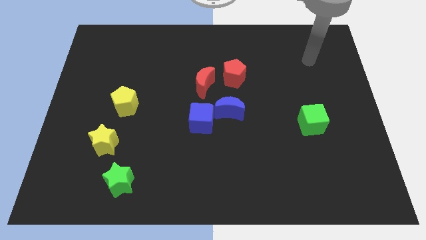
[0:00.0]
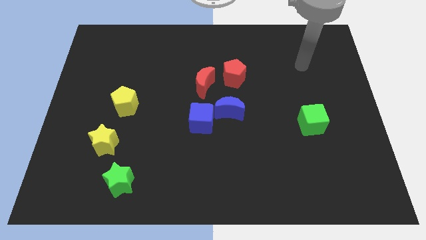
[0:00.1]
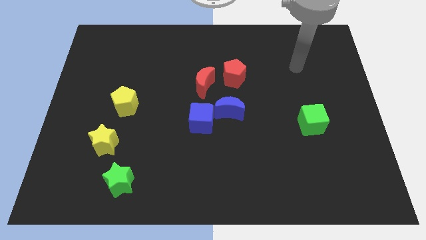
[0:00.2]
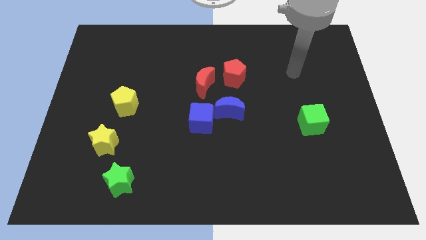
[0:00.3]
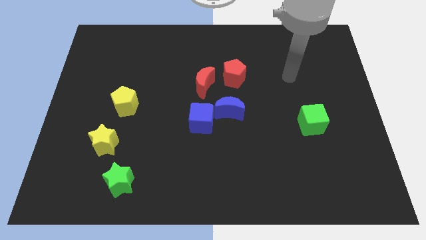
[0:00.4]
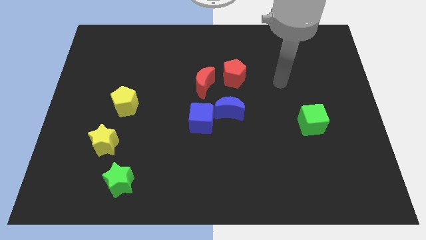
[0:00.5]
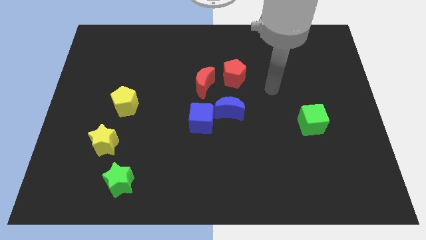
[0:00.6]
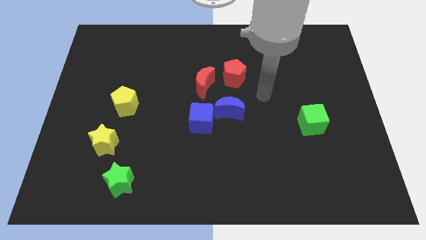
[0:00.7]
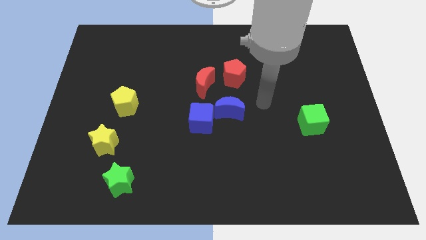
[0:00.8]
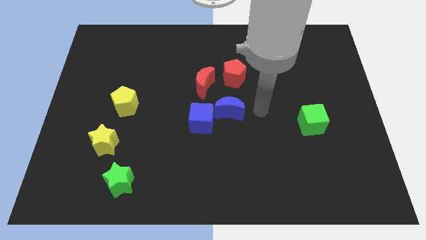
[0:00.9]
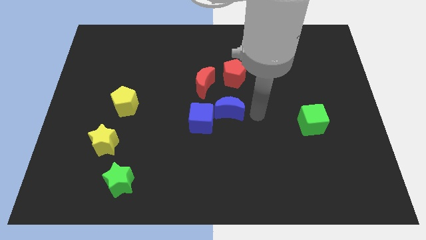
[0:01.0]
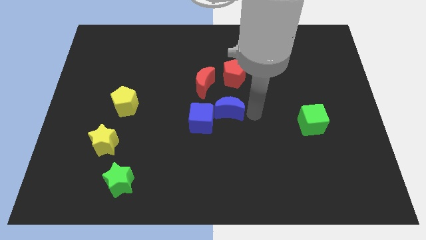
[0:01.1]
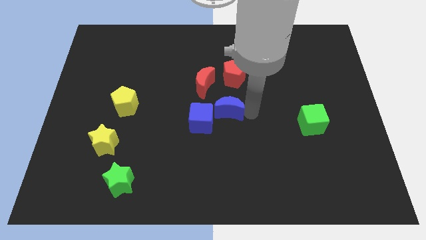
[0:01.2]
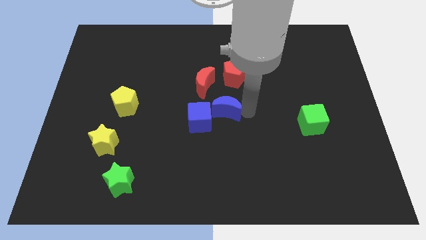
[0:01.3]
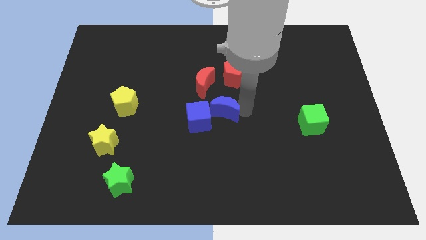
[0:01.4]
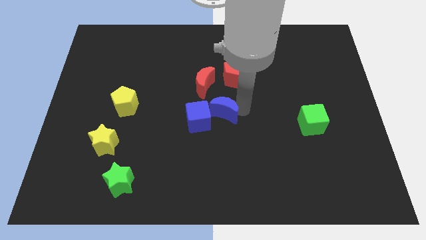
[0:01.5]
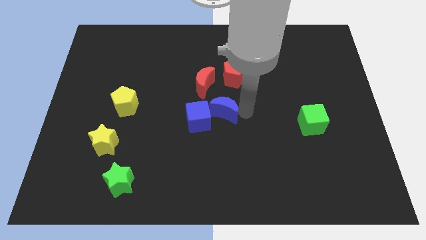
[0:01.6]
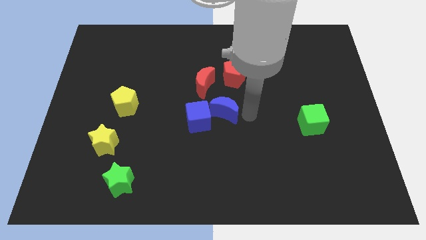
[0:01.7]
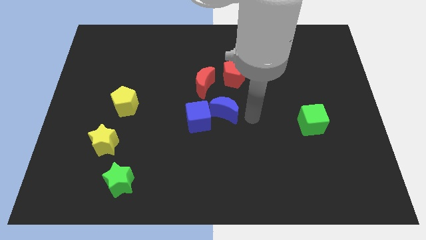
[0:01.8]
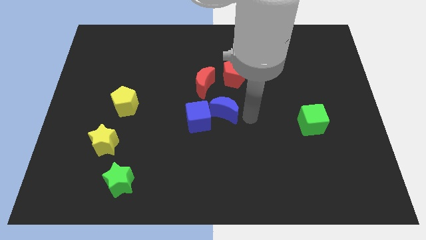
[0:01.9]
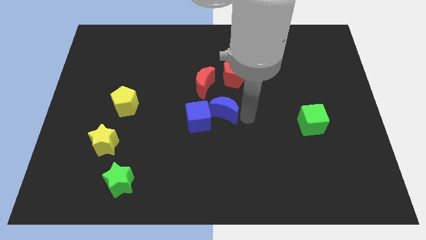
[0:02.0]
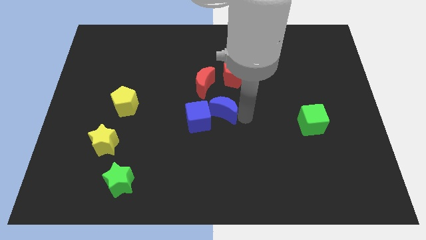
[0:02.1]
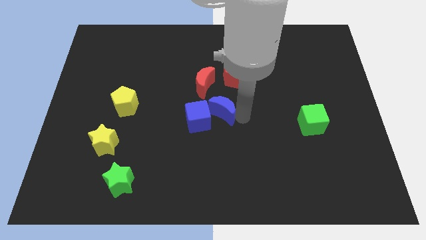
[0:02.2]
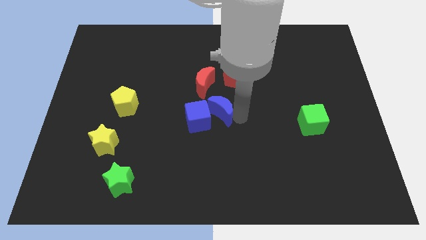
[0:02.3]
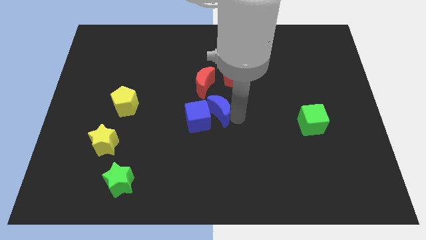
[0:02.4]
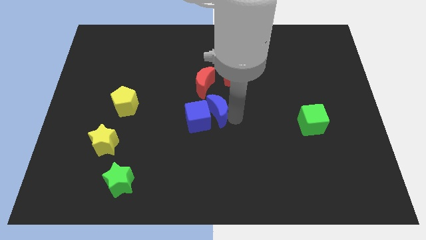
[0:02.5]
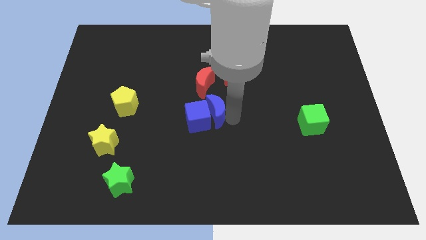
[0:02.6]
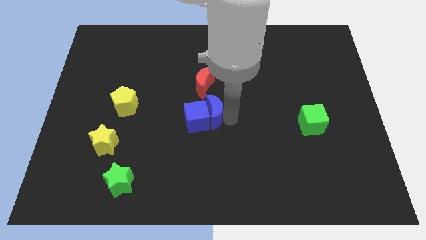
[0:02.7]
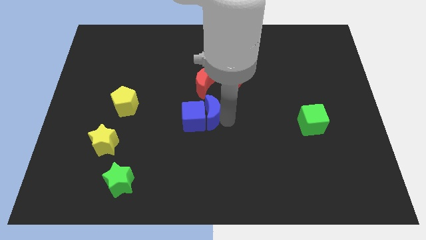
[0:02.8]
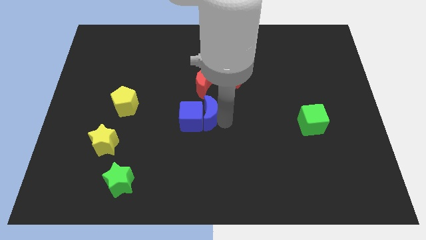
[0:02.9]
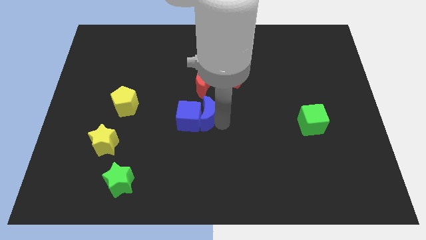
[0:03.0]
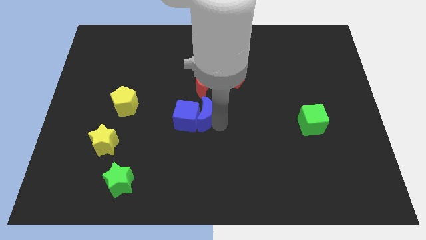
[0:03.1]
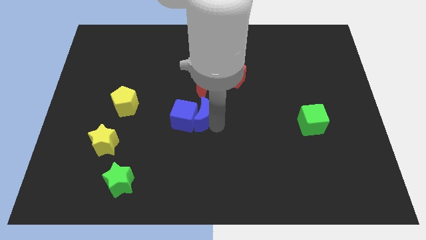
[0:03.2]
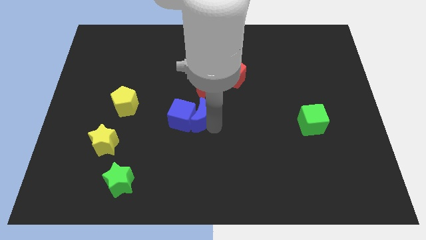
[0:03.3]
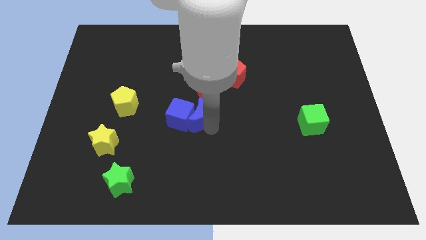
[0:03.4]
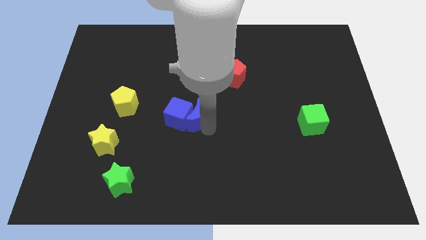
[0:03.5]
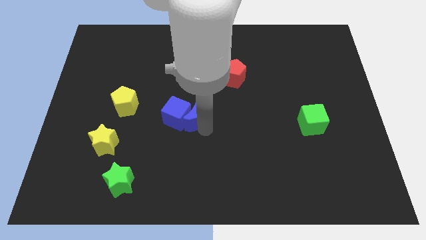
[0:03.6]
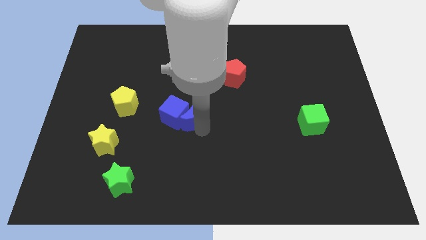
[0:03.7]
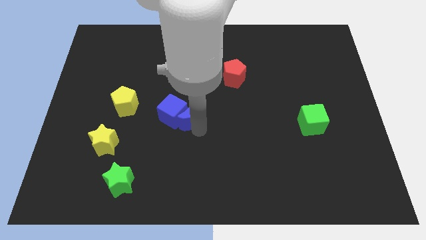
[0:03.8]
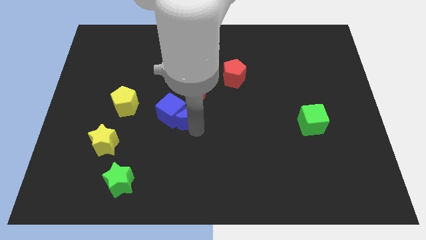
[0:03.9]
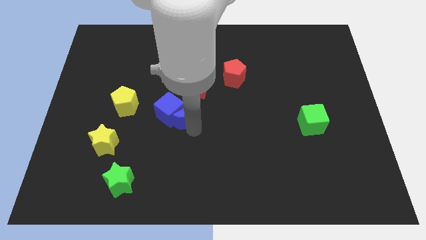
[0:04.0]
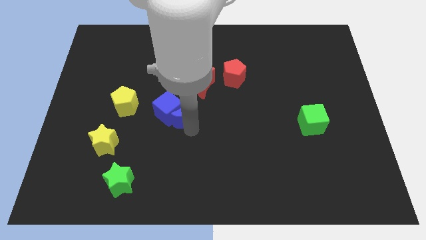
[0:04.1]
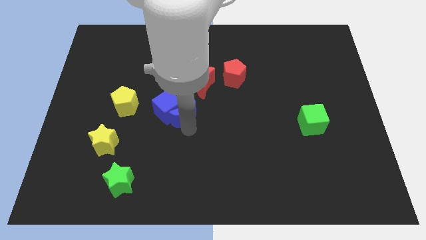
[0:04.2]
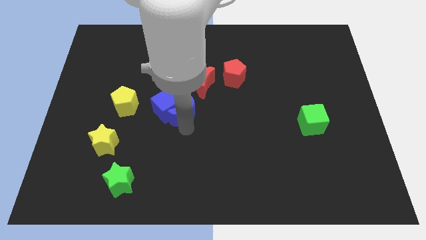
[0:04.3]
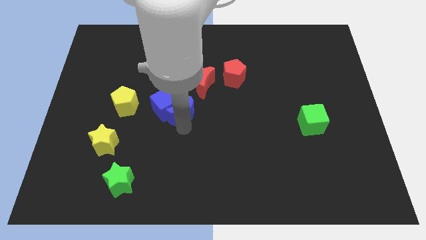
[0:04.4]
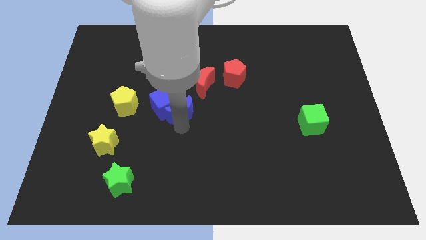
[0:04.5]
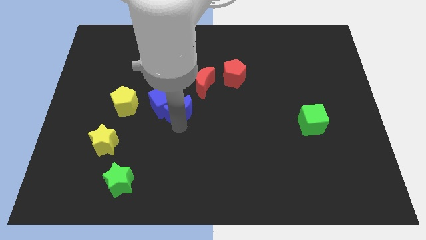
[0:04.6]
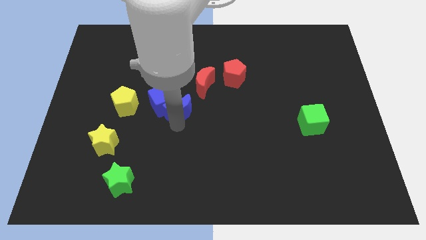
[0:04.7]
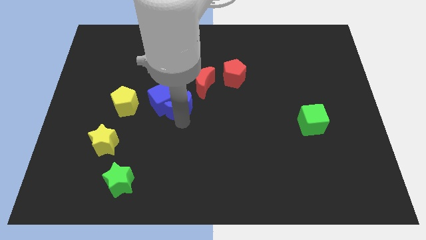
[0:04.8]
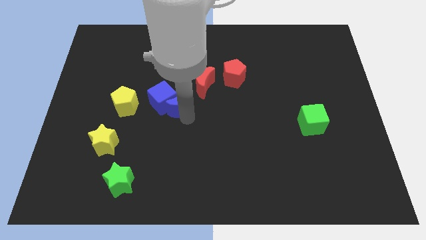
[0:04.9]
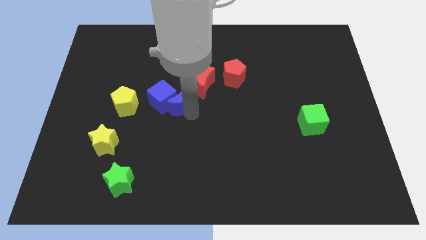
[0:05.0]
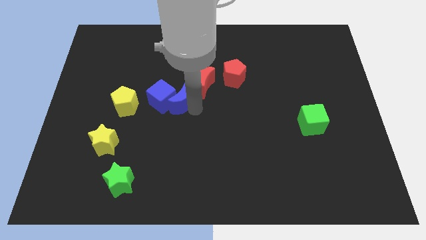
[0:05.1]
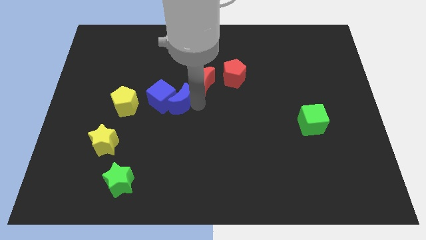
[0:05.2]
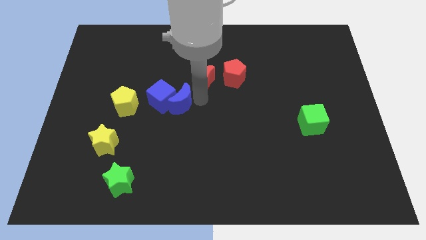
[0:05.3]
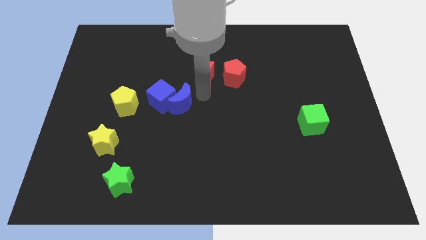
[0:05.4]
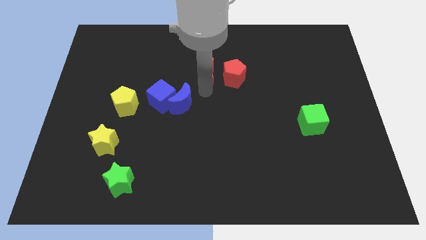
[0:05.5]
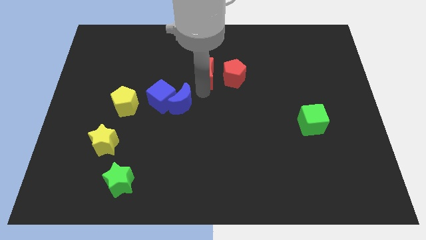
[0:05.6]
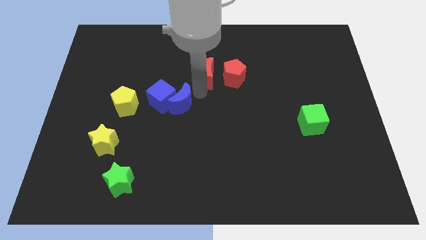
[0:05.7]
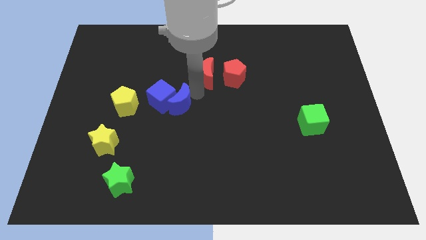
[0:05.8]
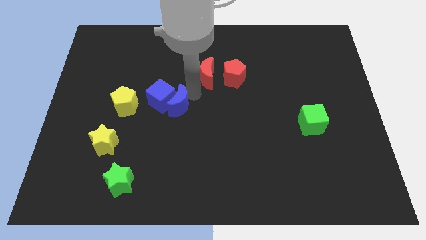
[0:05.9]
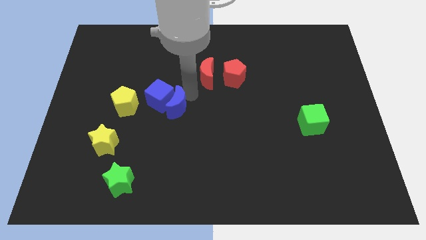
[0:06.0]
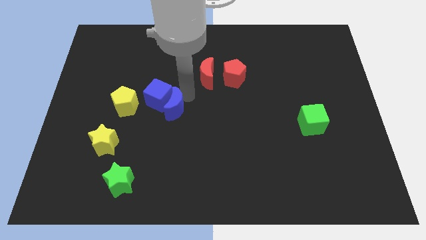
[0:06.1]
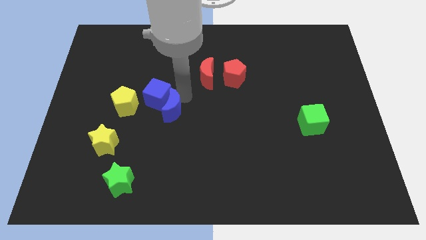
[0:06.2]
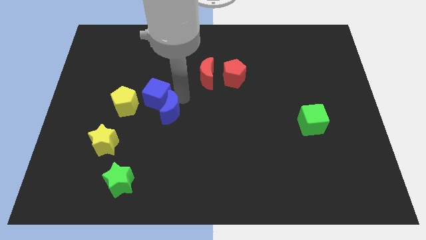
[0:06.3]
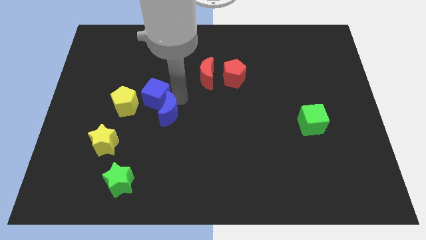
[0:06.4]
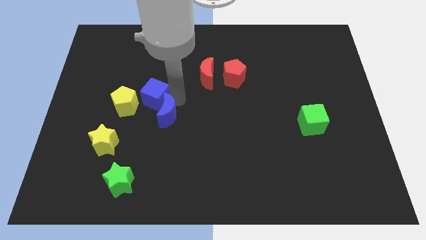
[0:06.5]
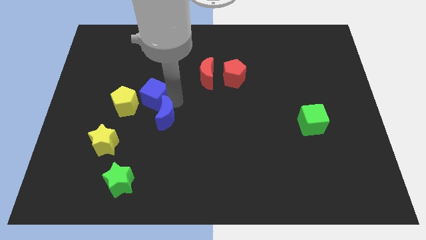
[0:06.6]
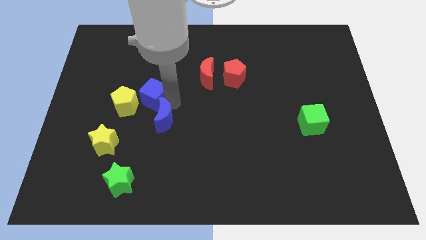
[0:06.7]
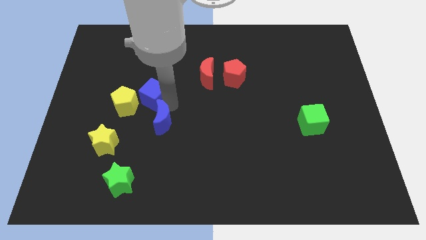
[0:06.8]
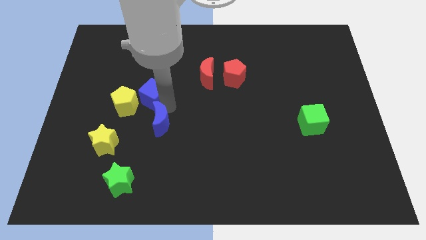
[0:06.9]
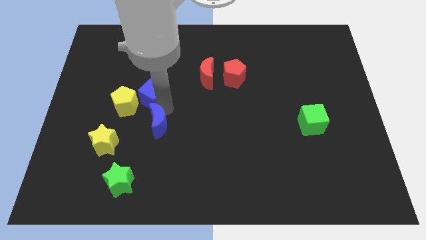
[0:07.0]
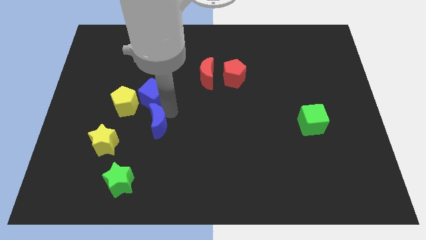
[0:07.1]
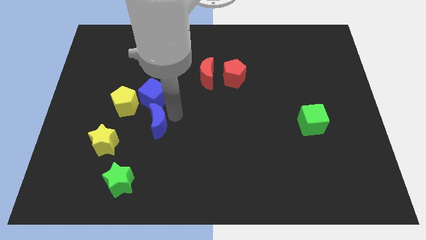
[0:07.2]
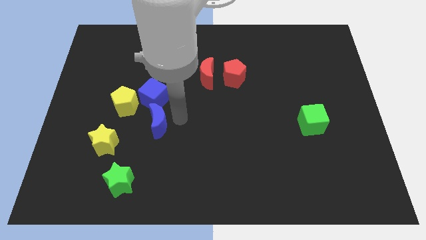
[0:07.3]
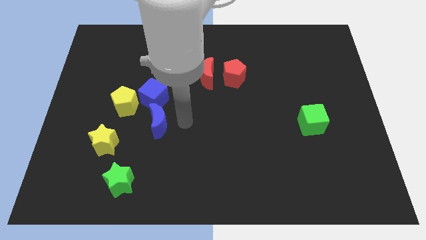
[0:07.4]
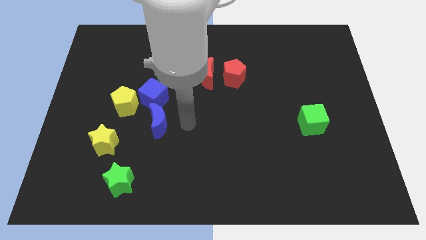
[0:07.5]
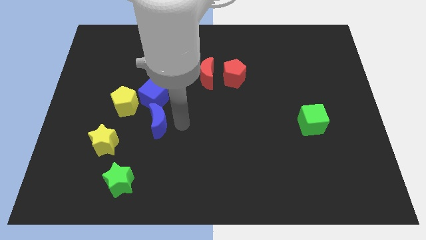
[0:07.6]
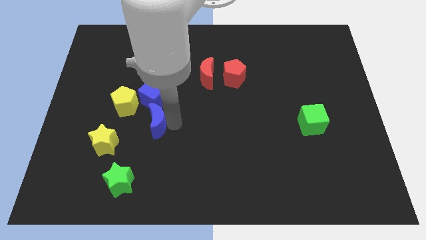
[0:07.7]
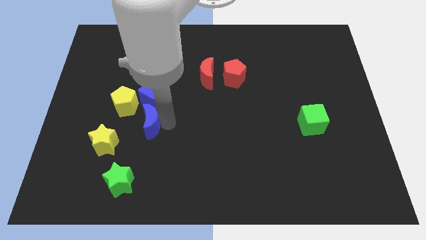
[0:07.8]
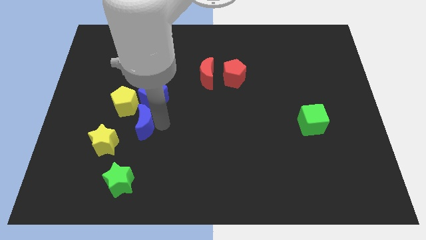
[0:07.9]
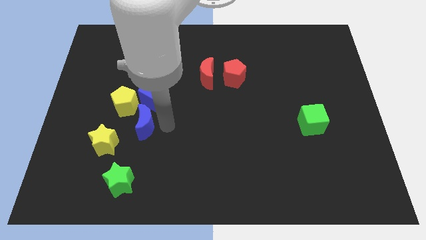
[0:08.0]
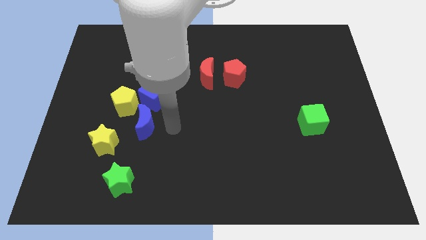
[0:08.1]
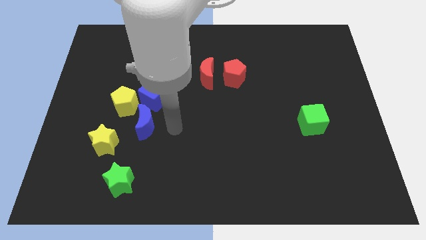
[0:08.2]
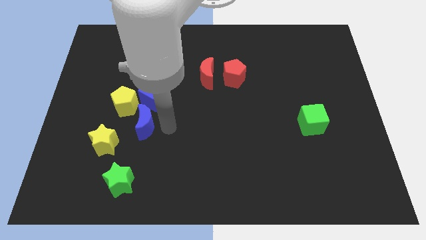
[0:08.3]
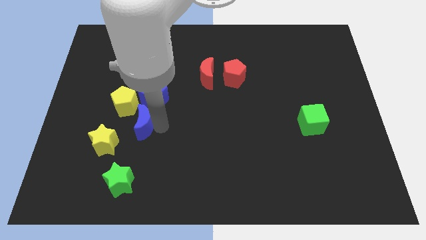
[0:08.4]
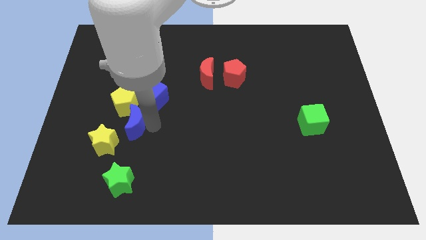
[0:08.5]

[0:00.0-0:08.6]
move the blue moon to the left
